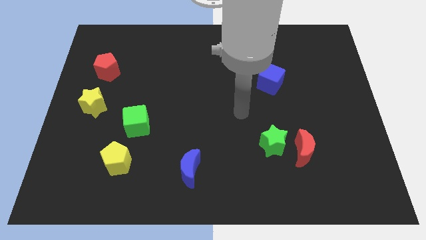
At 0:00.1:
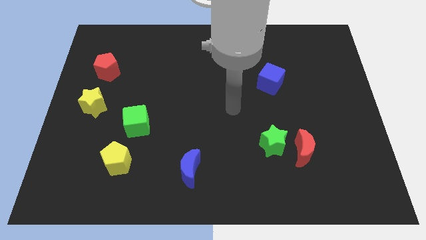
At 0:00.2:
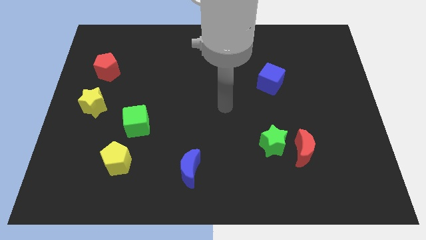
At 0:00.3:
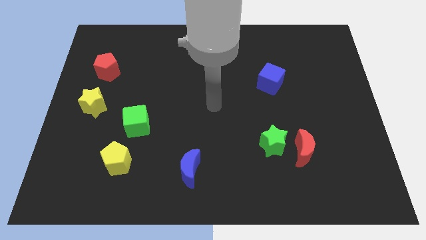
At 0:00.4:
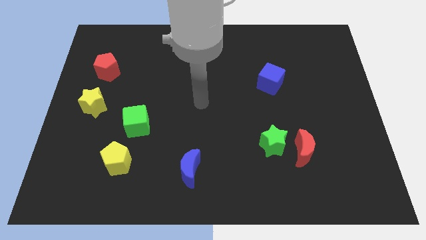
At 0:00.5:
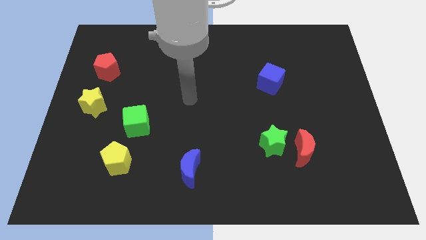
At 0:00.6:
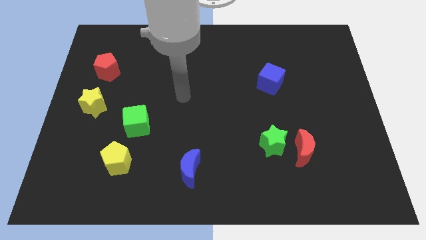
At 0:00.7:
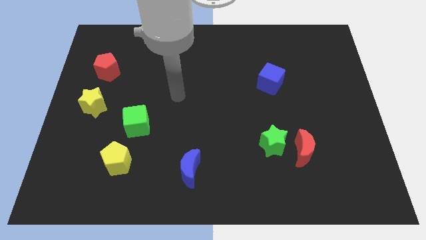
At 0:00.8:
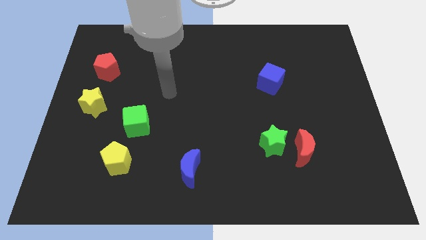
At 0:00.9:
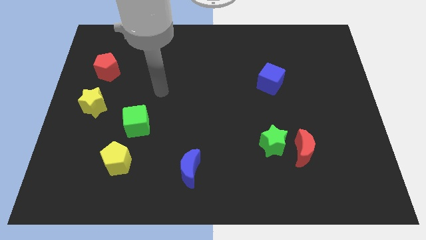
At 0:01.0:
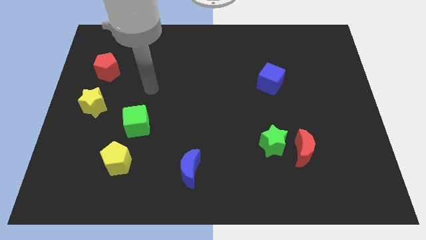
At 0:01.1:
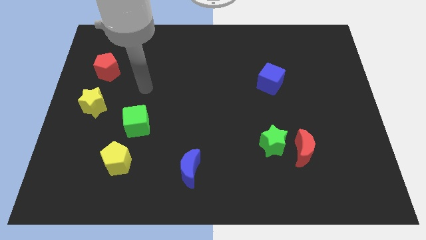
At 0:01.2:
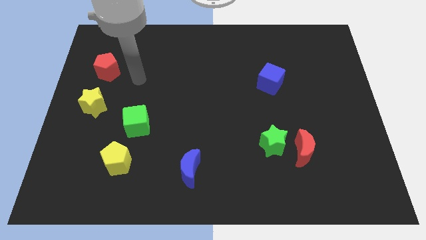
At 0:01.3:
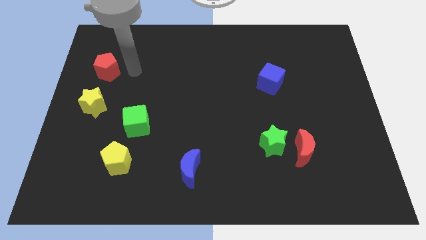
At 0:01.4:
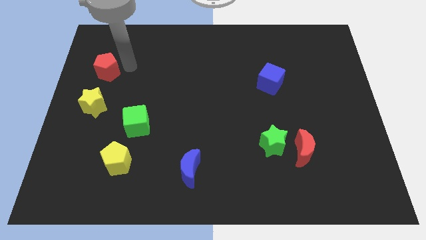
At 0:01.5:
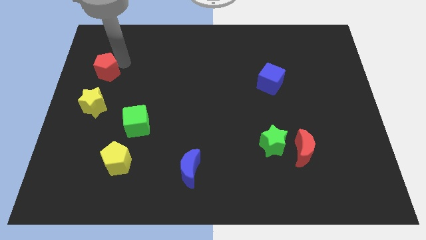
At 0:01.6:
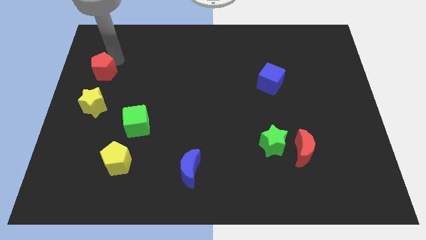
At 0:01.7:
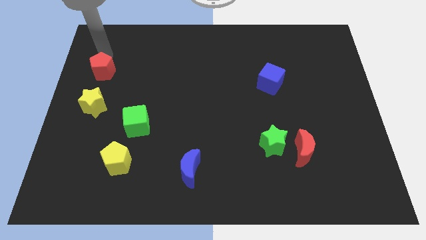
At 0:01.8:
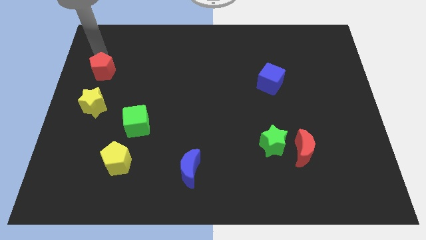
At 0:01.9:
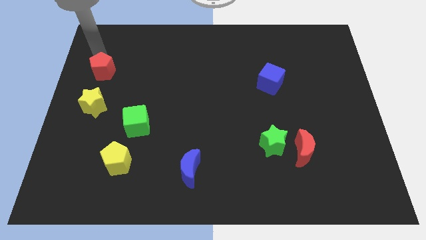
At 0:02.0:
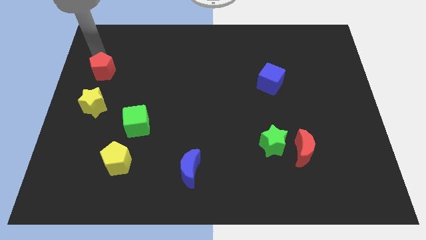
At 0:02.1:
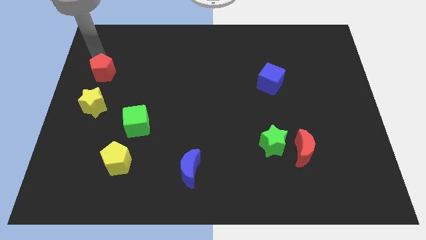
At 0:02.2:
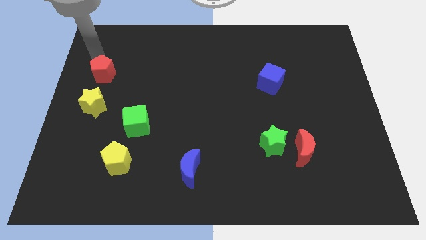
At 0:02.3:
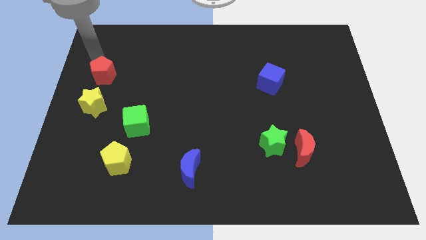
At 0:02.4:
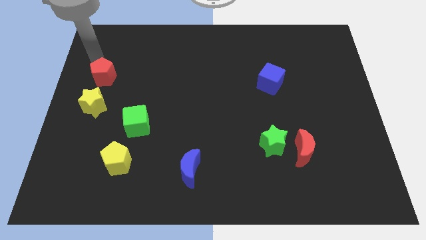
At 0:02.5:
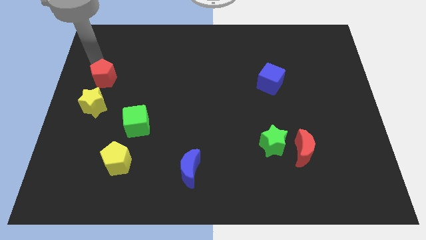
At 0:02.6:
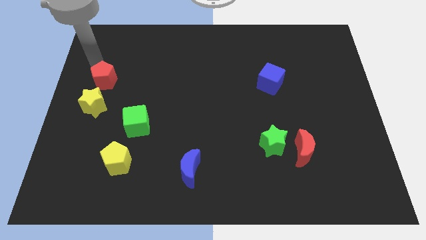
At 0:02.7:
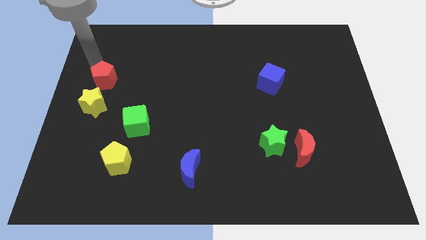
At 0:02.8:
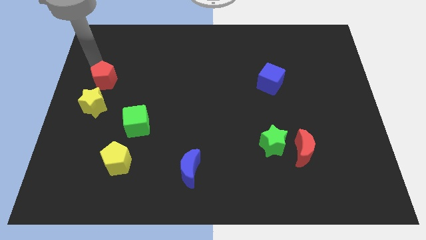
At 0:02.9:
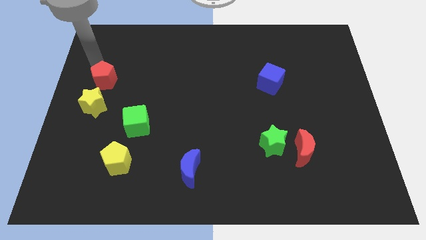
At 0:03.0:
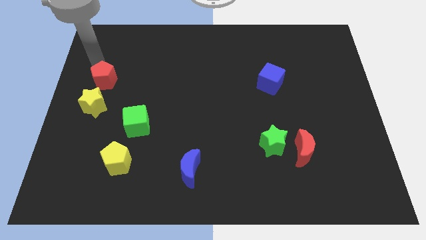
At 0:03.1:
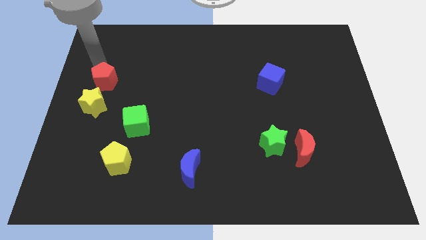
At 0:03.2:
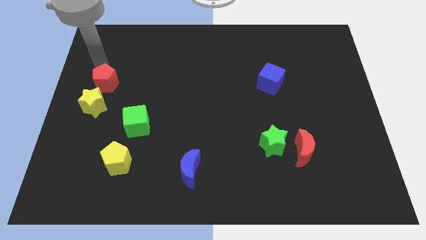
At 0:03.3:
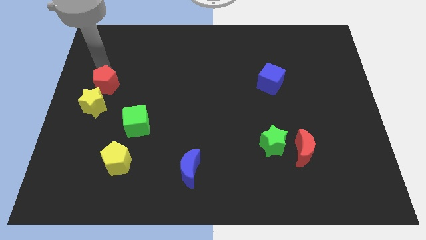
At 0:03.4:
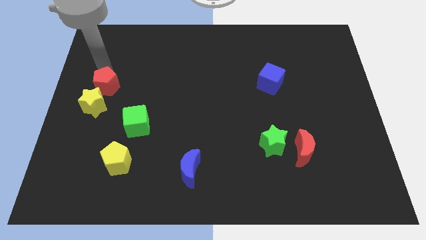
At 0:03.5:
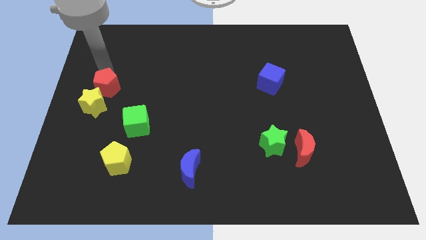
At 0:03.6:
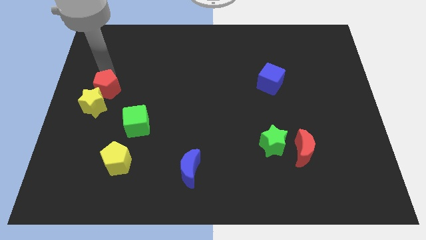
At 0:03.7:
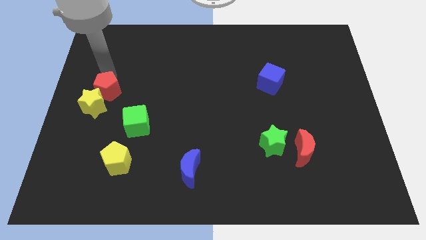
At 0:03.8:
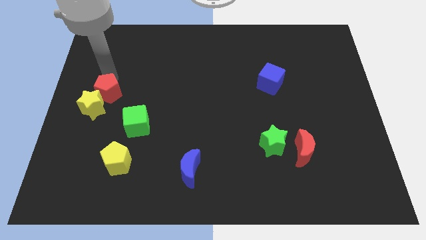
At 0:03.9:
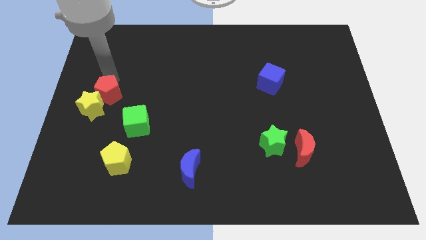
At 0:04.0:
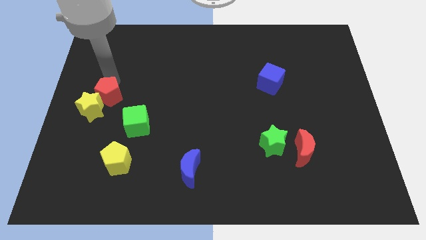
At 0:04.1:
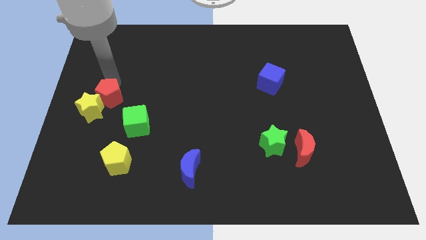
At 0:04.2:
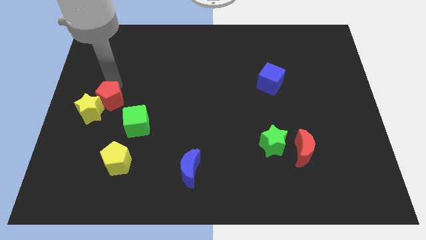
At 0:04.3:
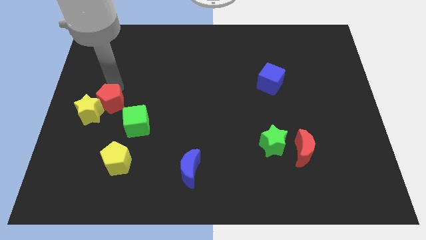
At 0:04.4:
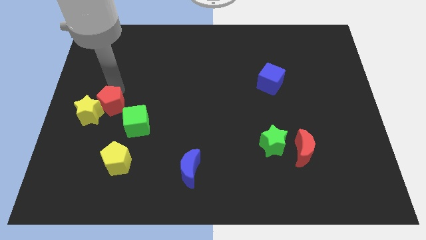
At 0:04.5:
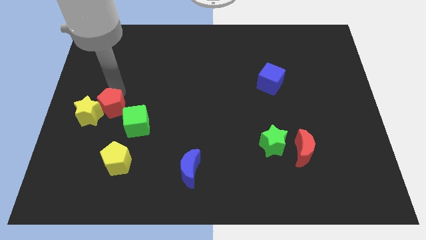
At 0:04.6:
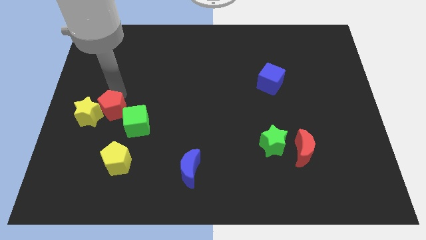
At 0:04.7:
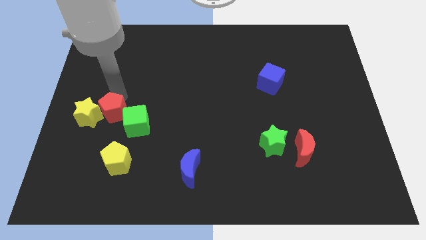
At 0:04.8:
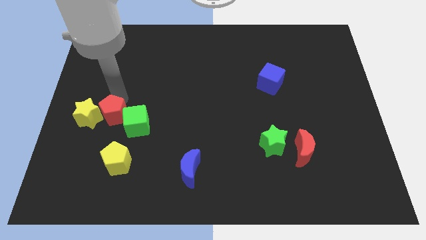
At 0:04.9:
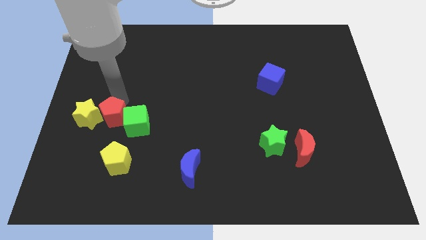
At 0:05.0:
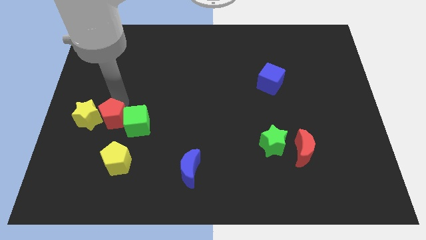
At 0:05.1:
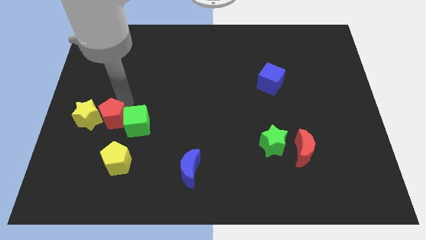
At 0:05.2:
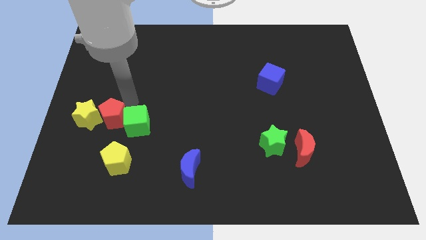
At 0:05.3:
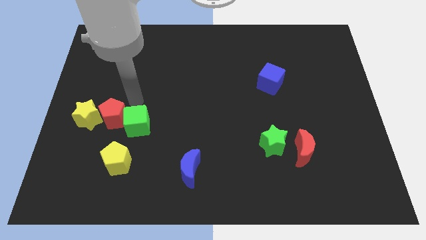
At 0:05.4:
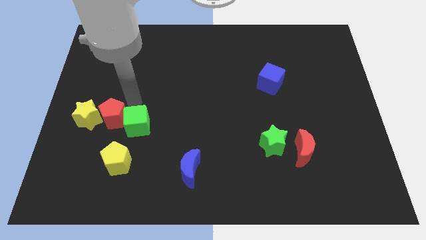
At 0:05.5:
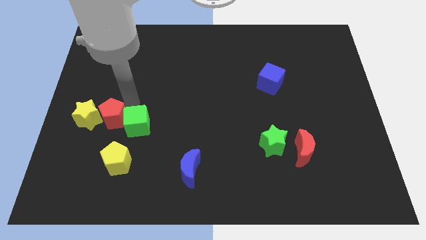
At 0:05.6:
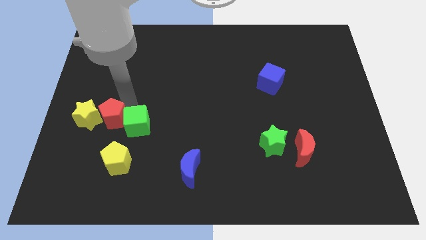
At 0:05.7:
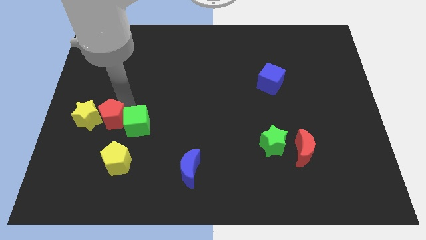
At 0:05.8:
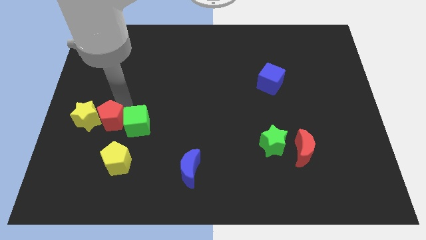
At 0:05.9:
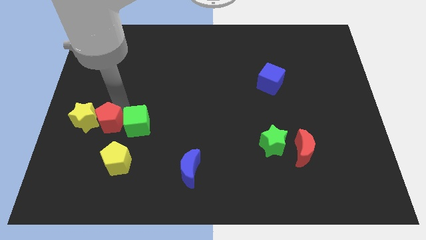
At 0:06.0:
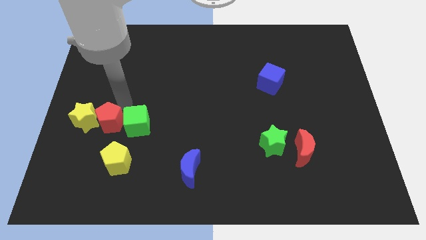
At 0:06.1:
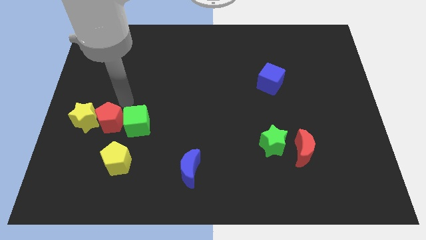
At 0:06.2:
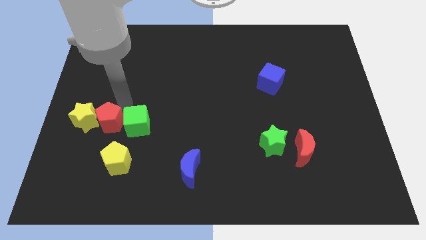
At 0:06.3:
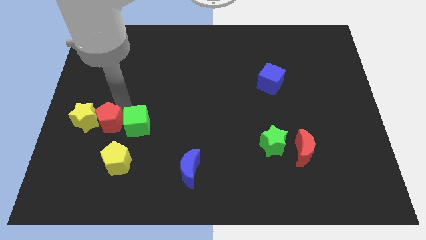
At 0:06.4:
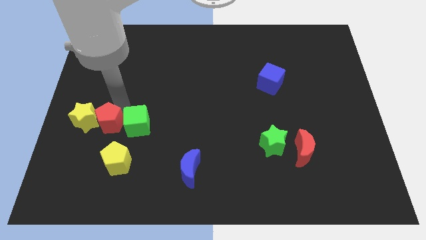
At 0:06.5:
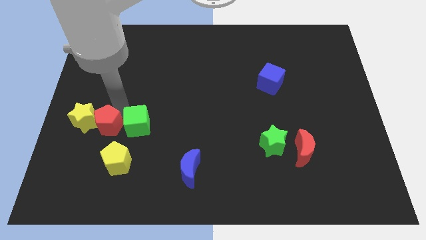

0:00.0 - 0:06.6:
push the red pentagon diagonally up and to the left of the yellow pentagon

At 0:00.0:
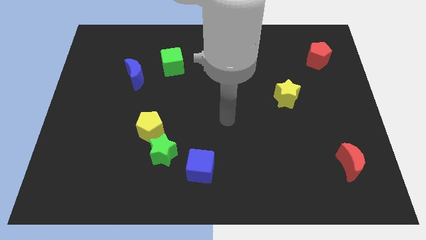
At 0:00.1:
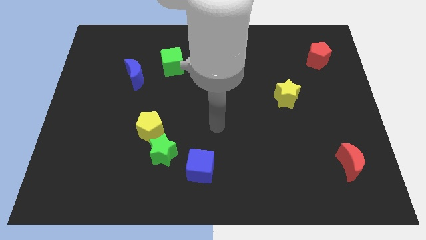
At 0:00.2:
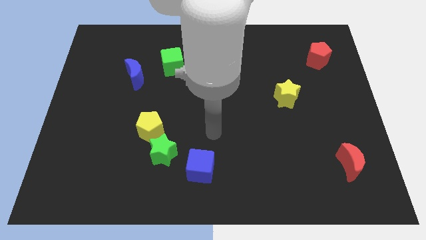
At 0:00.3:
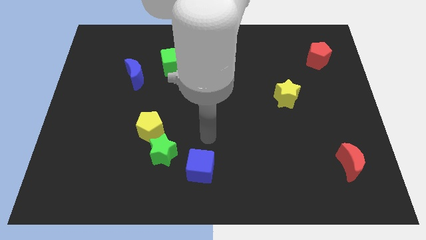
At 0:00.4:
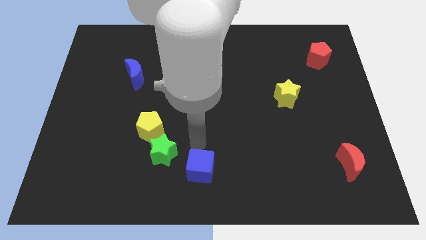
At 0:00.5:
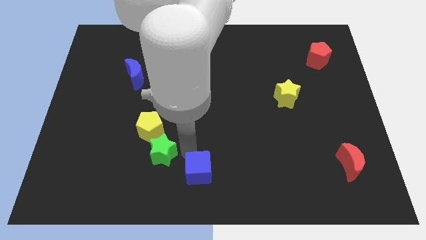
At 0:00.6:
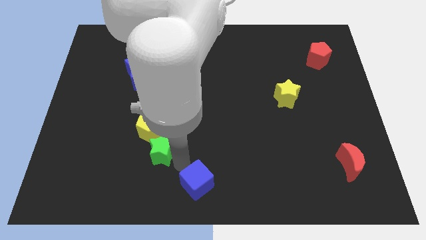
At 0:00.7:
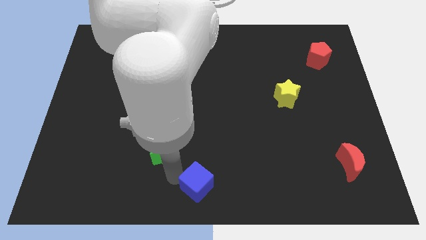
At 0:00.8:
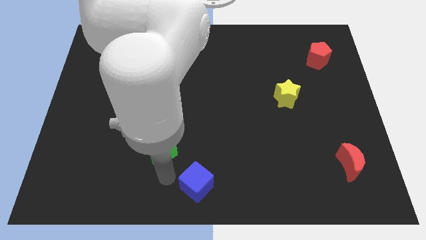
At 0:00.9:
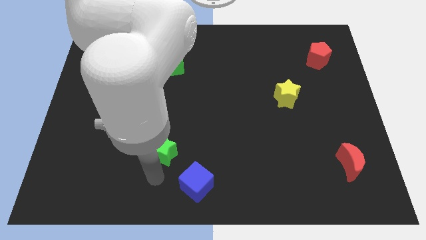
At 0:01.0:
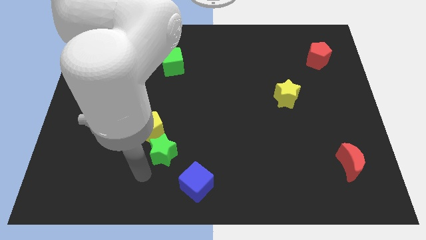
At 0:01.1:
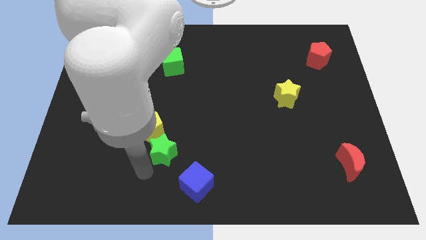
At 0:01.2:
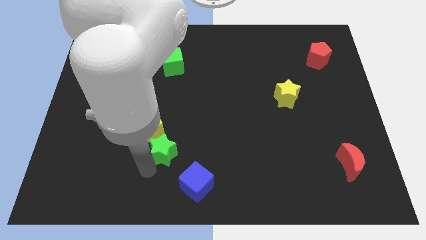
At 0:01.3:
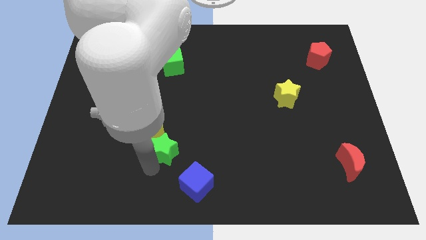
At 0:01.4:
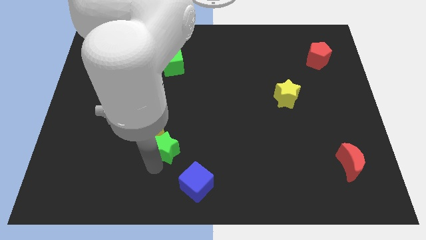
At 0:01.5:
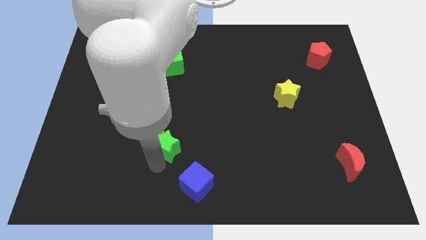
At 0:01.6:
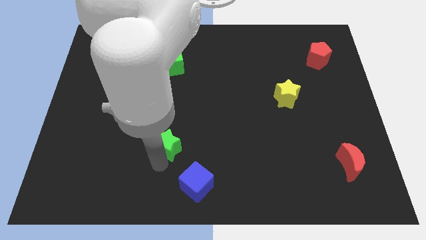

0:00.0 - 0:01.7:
put the green star to the right side of the yellow pentagon
